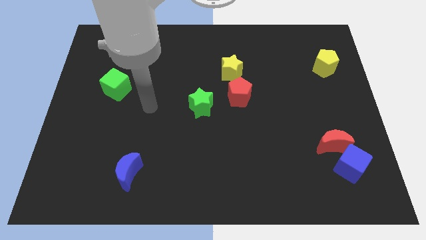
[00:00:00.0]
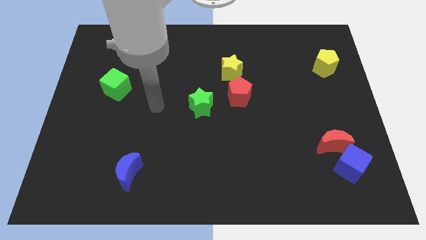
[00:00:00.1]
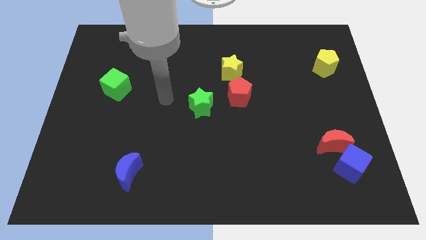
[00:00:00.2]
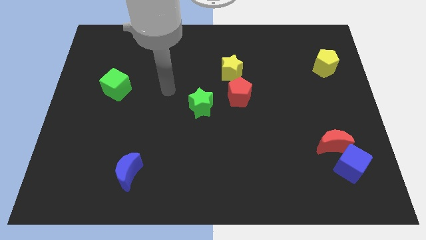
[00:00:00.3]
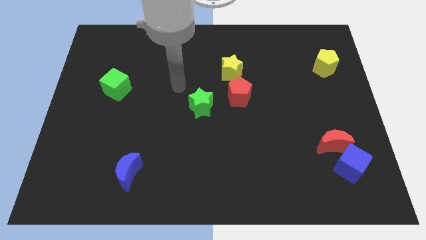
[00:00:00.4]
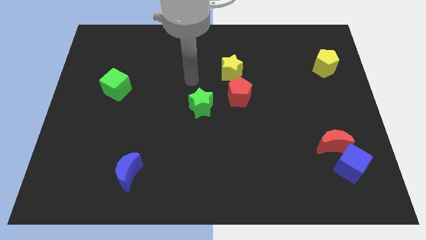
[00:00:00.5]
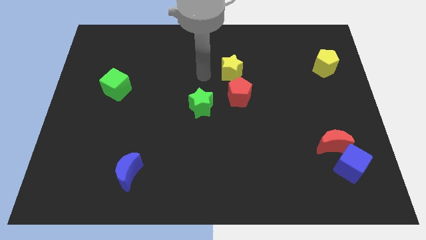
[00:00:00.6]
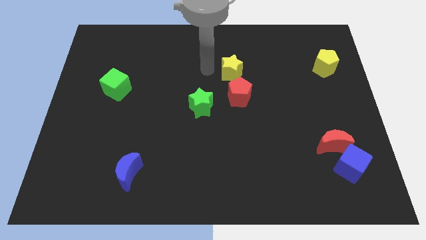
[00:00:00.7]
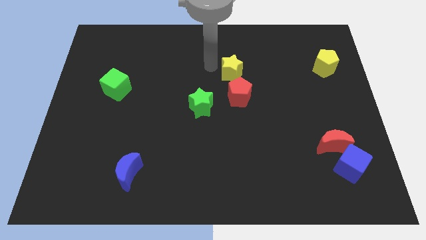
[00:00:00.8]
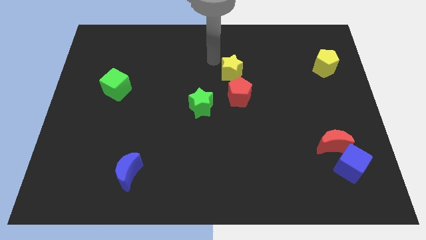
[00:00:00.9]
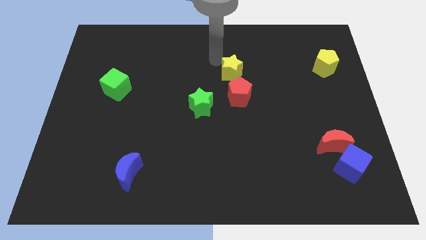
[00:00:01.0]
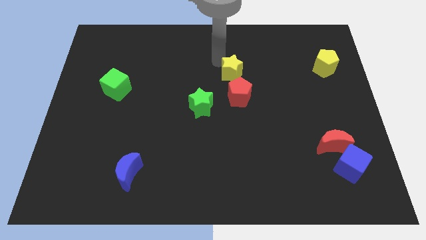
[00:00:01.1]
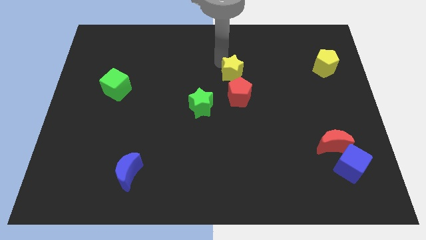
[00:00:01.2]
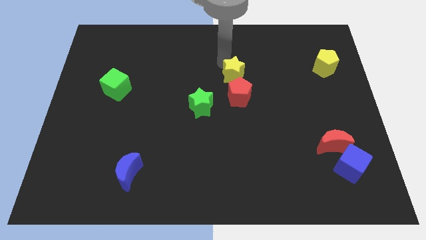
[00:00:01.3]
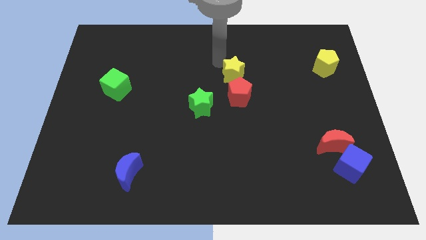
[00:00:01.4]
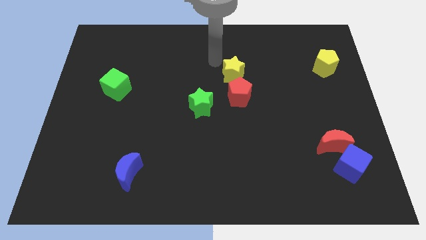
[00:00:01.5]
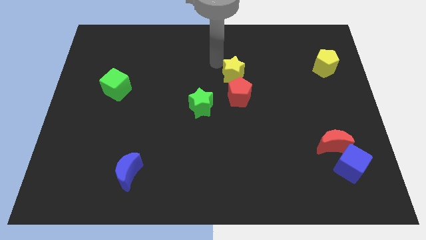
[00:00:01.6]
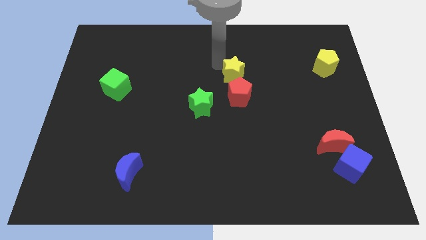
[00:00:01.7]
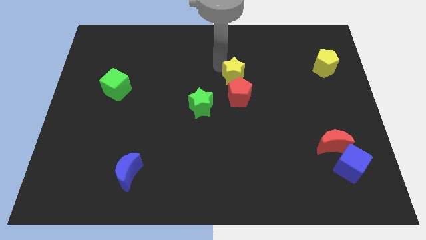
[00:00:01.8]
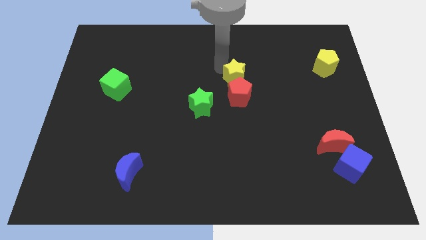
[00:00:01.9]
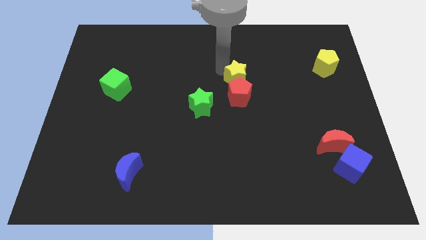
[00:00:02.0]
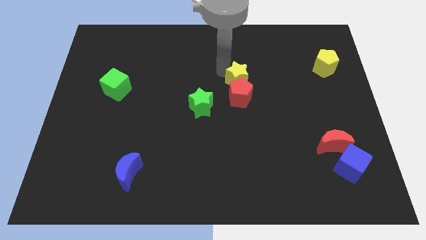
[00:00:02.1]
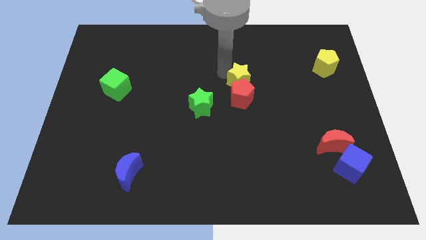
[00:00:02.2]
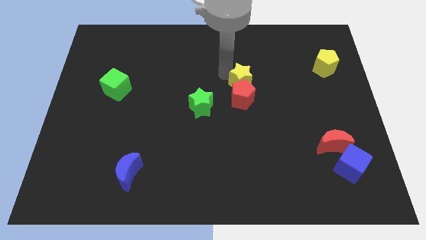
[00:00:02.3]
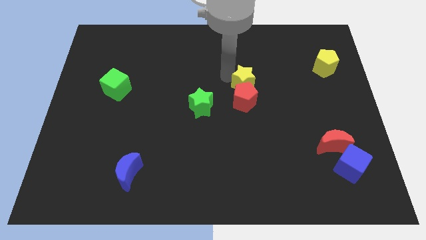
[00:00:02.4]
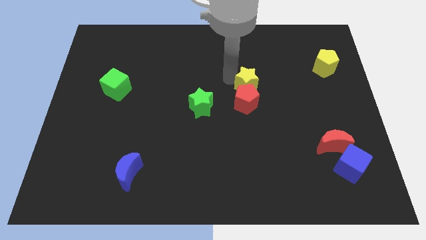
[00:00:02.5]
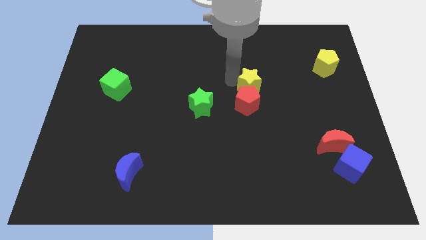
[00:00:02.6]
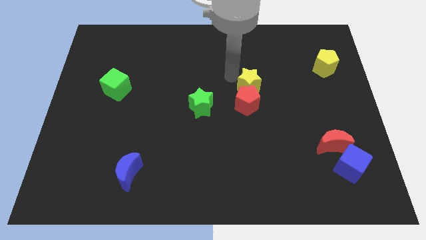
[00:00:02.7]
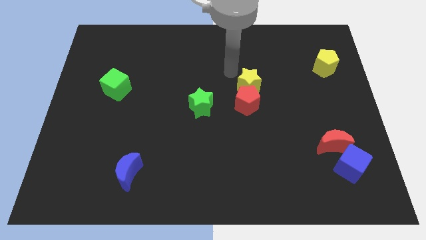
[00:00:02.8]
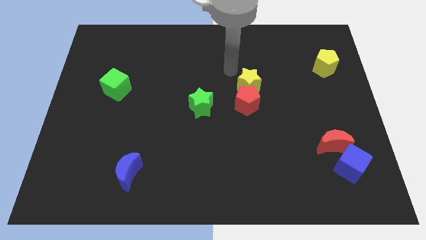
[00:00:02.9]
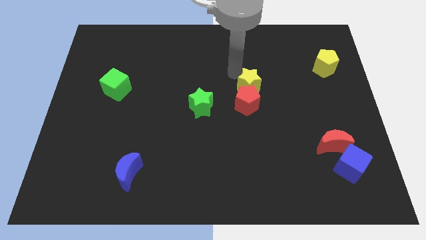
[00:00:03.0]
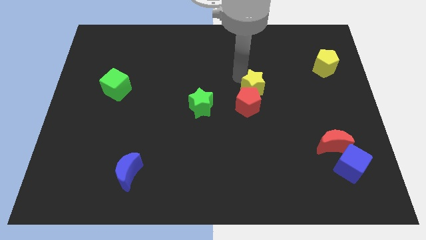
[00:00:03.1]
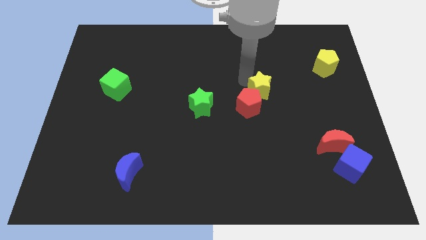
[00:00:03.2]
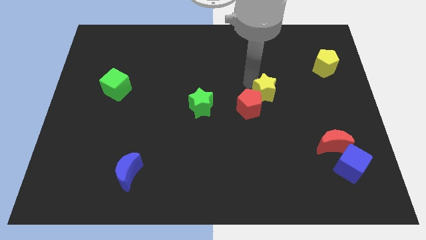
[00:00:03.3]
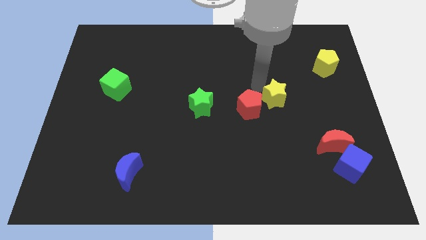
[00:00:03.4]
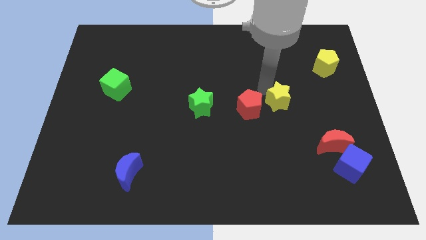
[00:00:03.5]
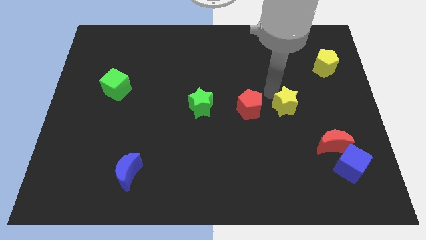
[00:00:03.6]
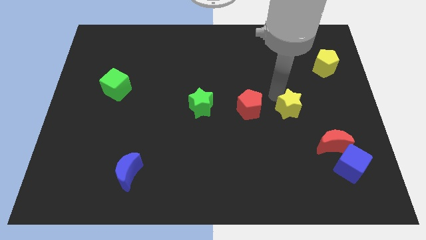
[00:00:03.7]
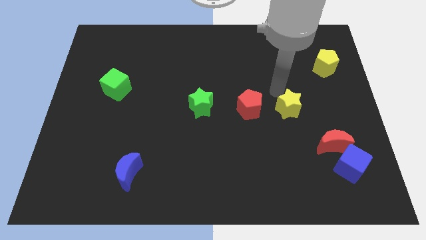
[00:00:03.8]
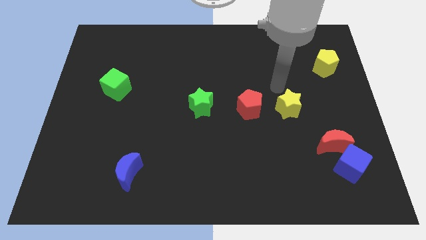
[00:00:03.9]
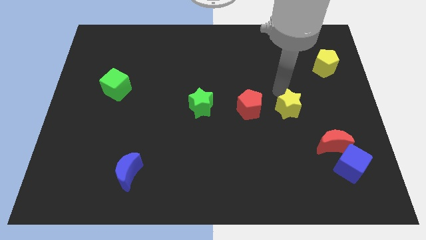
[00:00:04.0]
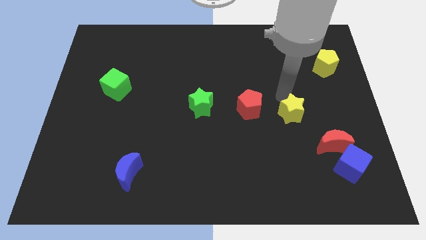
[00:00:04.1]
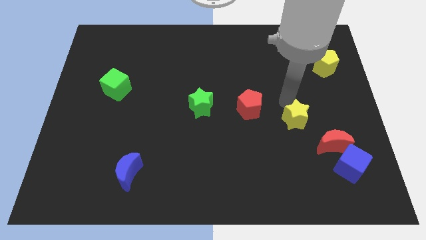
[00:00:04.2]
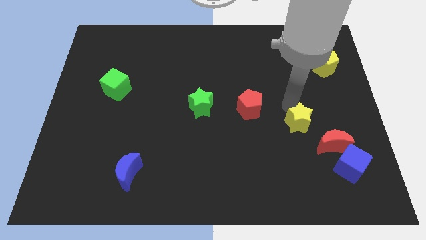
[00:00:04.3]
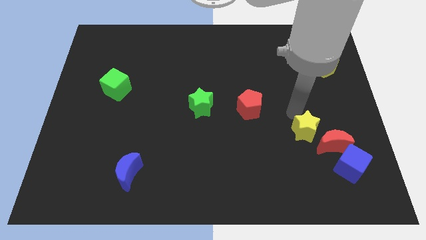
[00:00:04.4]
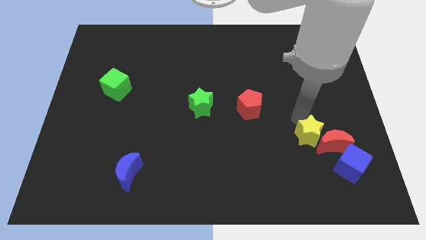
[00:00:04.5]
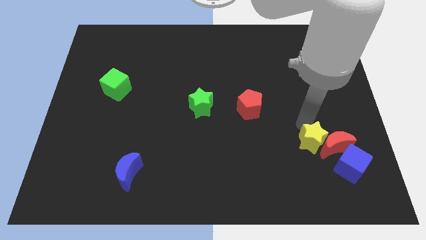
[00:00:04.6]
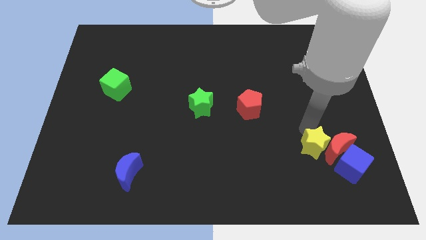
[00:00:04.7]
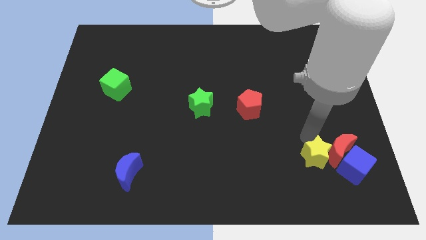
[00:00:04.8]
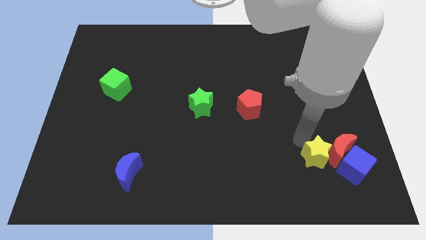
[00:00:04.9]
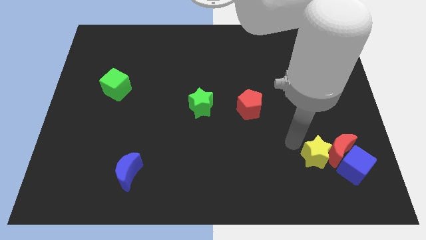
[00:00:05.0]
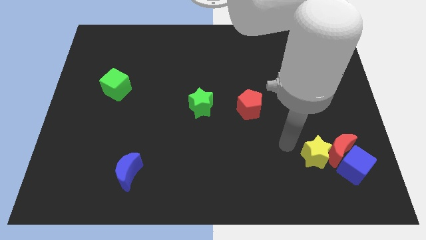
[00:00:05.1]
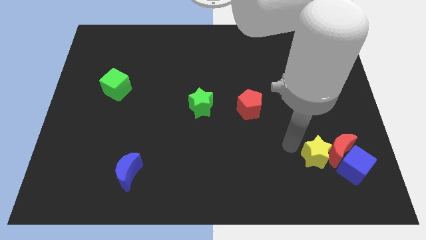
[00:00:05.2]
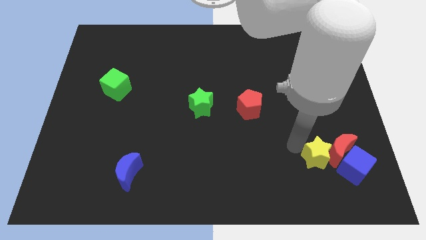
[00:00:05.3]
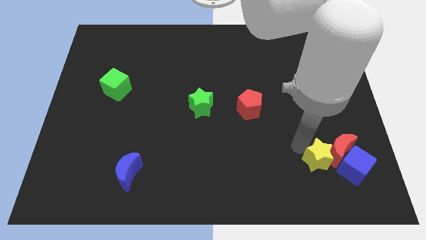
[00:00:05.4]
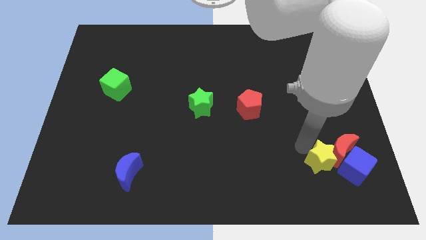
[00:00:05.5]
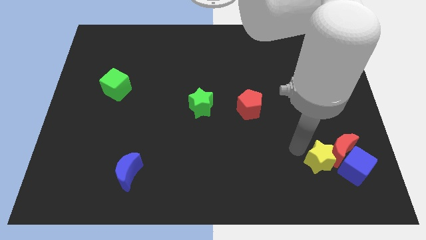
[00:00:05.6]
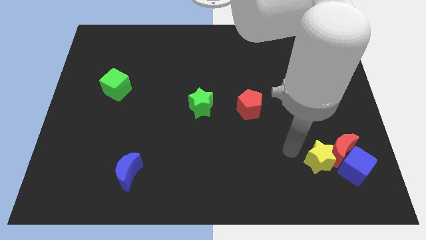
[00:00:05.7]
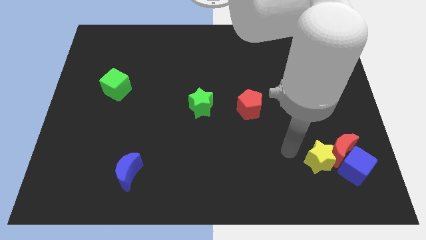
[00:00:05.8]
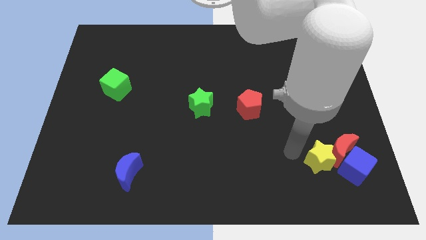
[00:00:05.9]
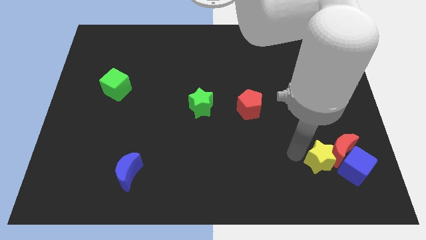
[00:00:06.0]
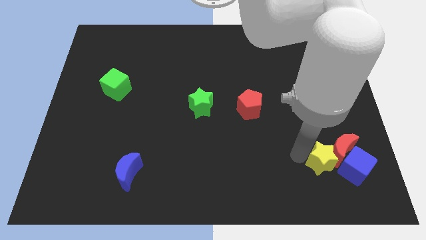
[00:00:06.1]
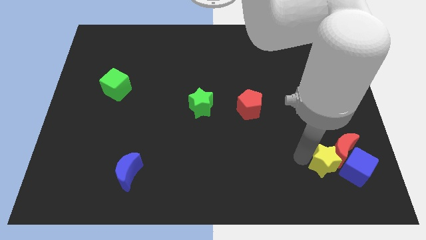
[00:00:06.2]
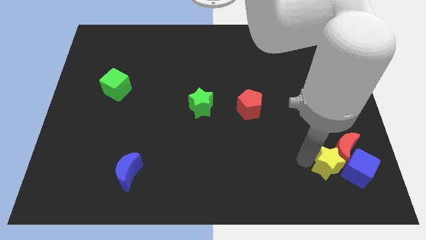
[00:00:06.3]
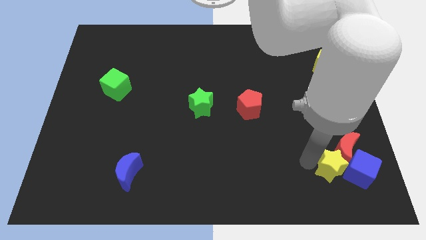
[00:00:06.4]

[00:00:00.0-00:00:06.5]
push the yellow star close to the blue cube

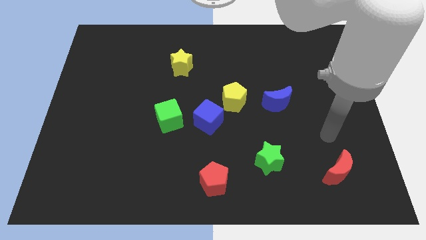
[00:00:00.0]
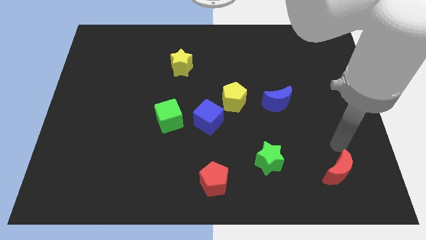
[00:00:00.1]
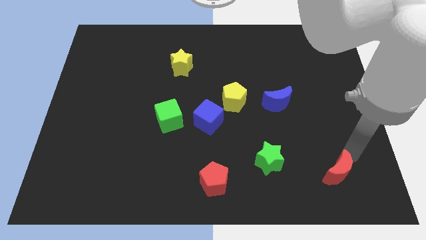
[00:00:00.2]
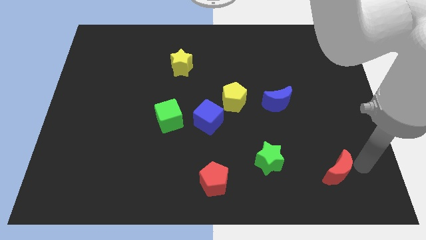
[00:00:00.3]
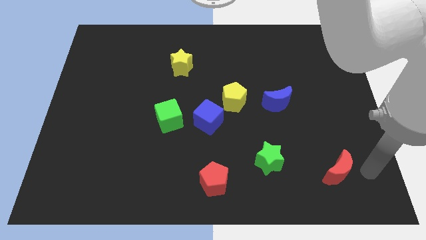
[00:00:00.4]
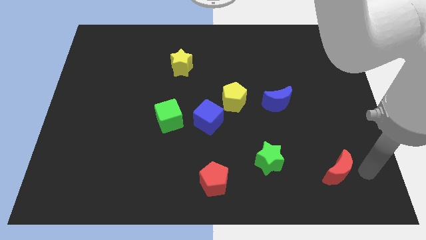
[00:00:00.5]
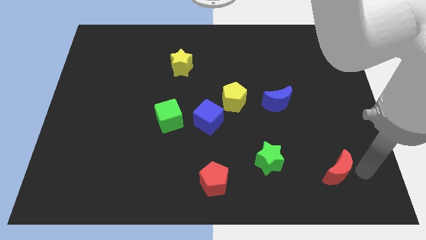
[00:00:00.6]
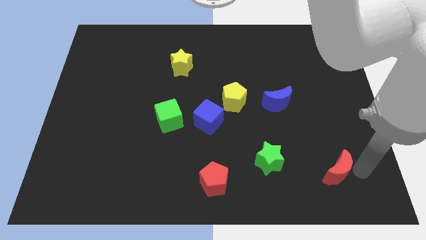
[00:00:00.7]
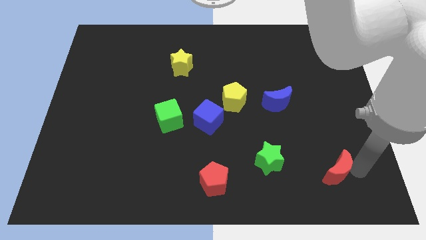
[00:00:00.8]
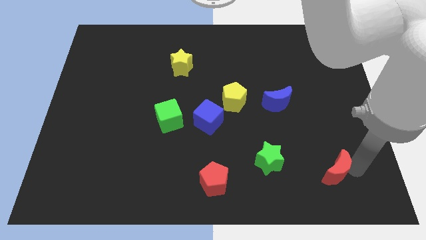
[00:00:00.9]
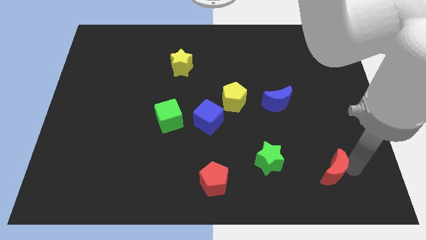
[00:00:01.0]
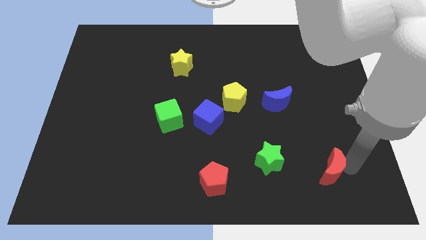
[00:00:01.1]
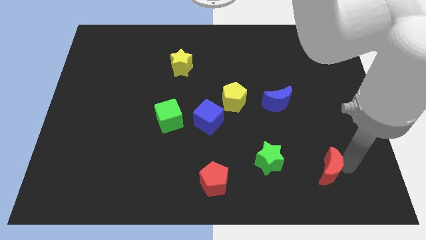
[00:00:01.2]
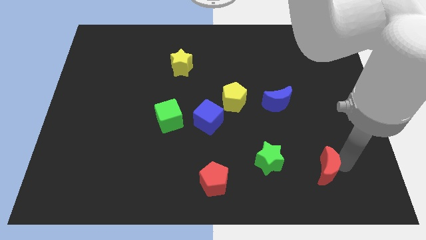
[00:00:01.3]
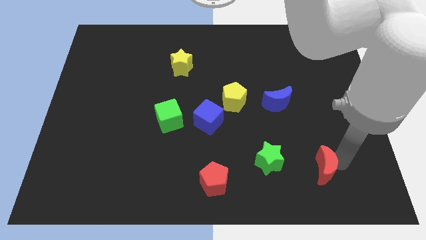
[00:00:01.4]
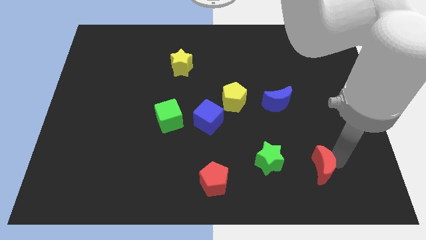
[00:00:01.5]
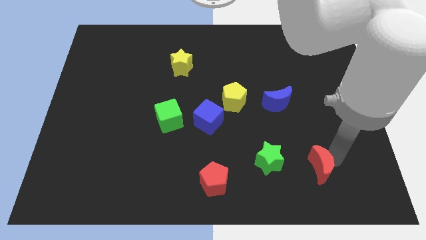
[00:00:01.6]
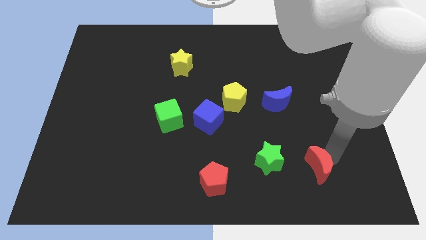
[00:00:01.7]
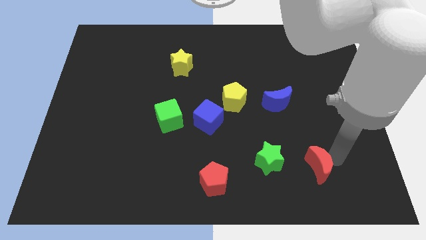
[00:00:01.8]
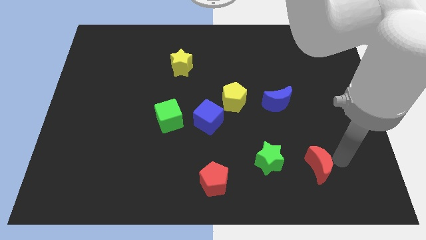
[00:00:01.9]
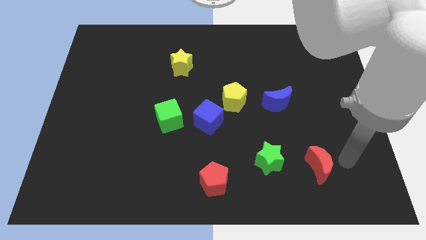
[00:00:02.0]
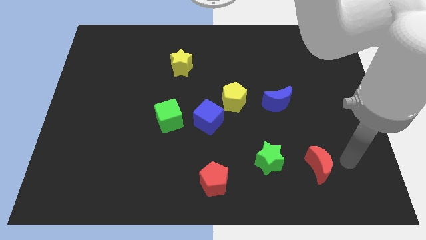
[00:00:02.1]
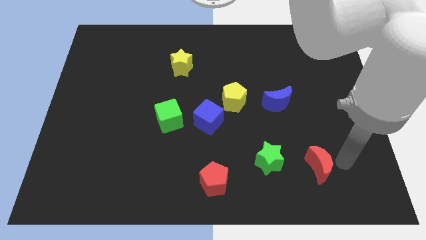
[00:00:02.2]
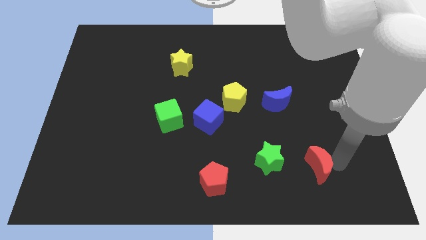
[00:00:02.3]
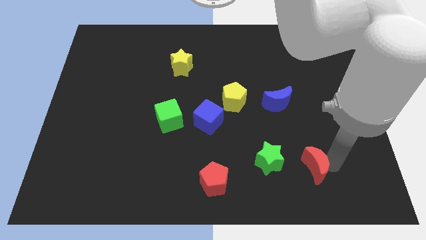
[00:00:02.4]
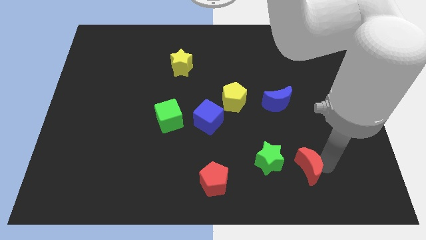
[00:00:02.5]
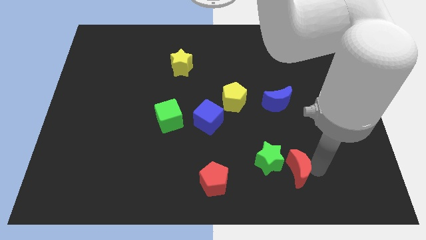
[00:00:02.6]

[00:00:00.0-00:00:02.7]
push the red moon towards the green star
